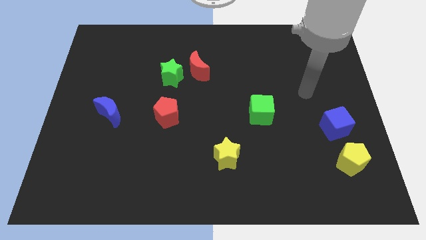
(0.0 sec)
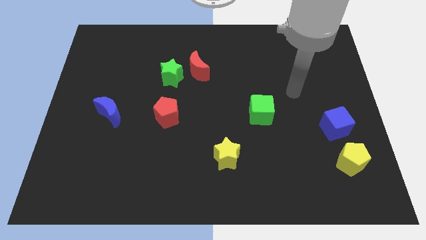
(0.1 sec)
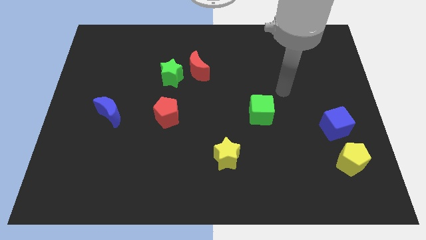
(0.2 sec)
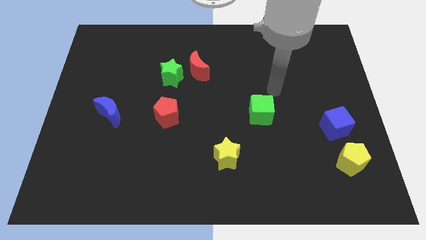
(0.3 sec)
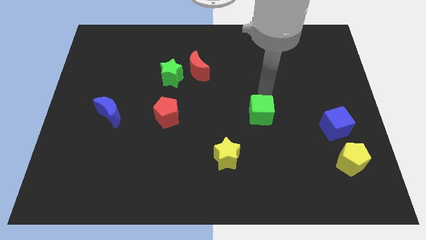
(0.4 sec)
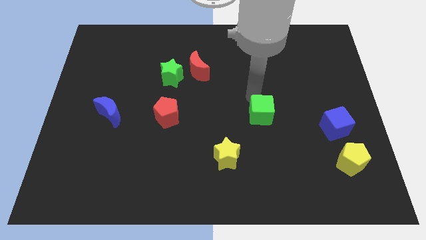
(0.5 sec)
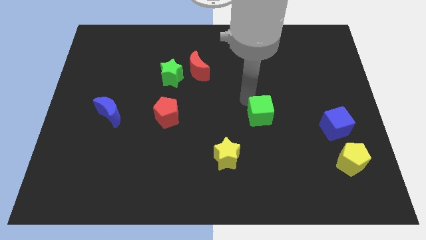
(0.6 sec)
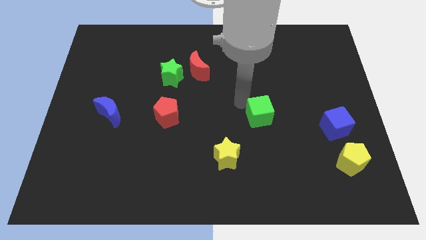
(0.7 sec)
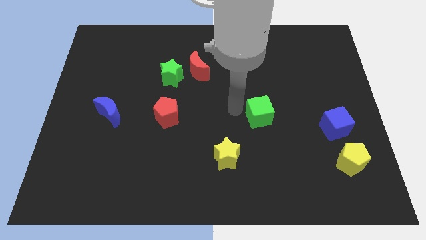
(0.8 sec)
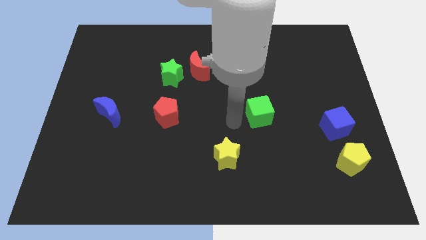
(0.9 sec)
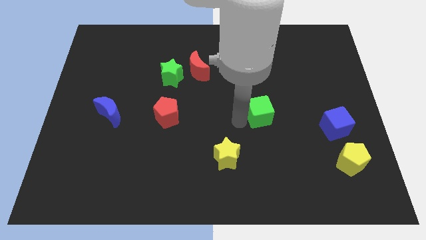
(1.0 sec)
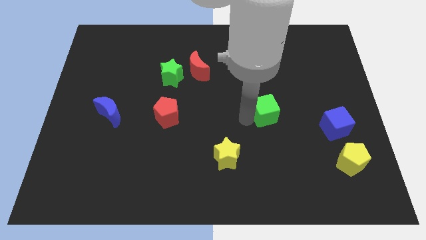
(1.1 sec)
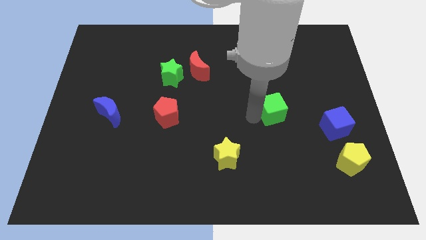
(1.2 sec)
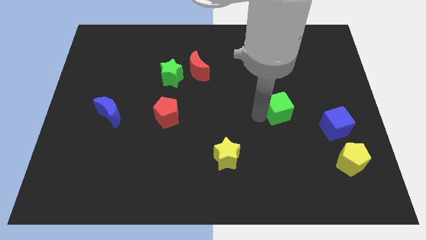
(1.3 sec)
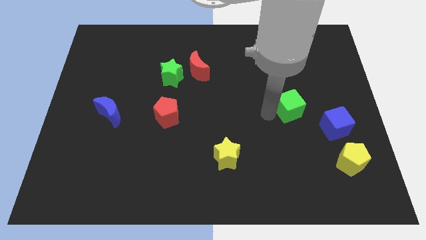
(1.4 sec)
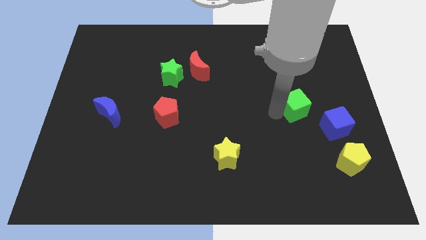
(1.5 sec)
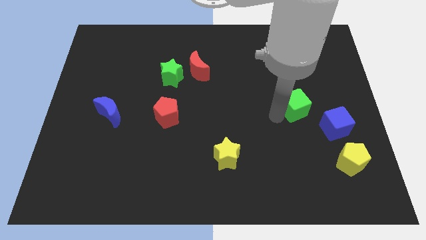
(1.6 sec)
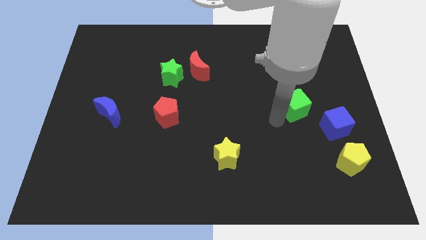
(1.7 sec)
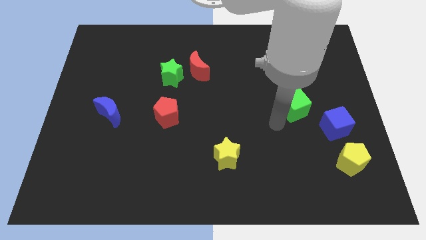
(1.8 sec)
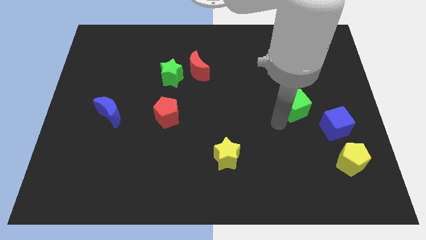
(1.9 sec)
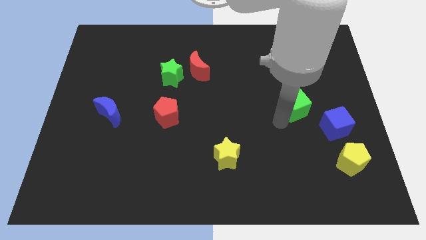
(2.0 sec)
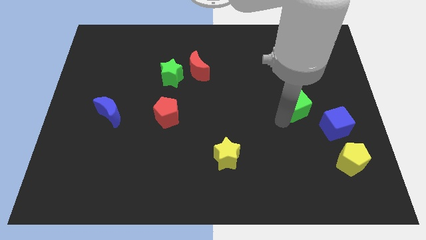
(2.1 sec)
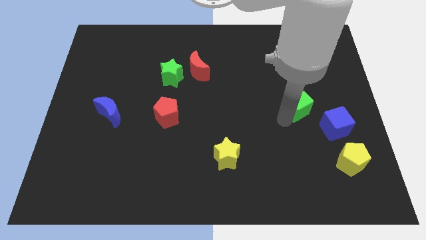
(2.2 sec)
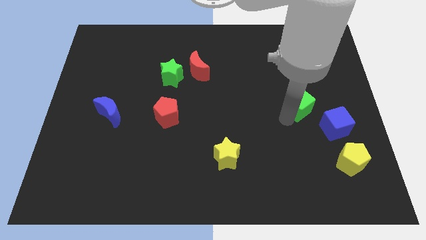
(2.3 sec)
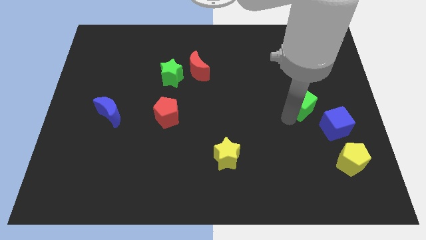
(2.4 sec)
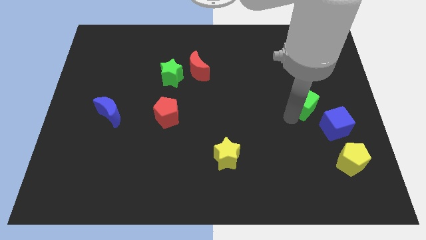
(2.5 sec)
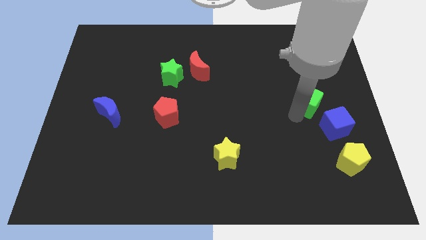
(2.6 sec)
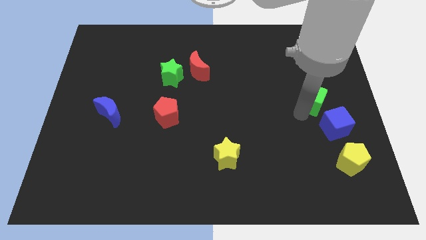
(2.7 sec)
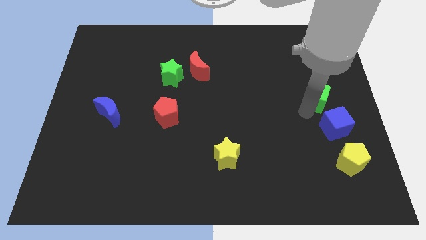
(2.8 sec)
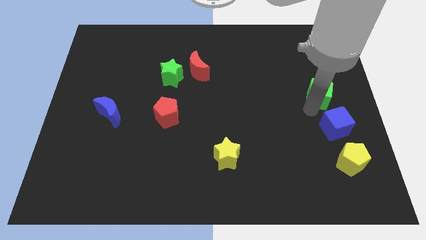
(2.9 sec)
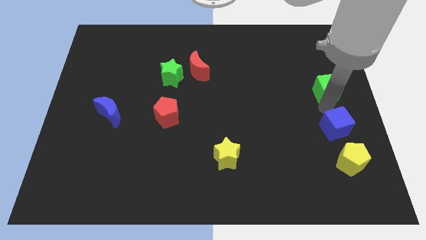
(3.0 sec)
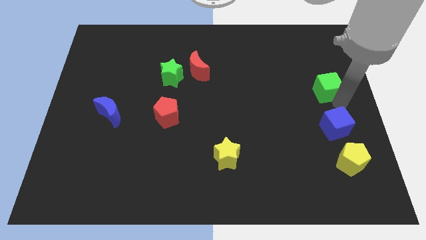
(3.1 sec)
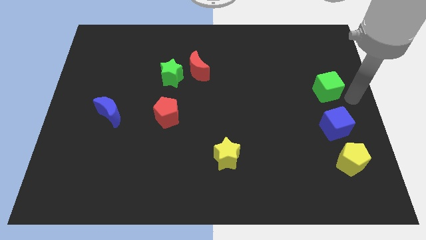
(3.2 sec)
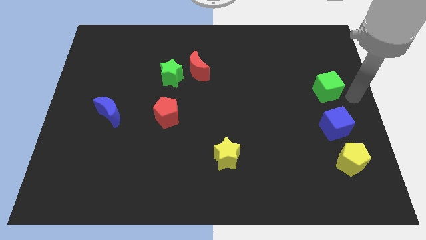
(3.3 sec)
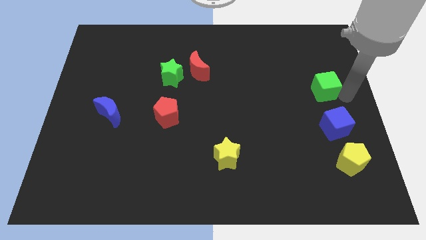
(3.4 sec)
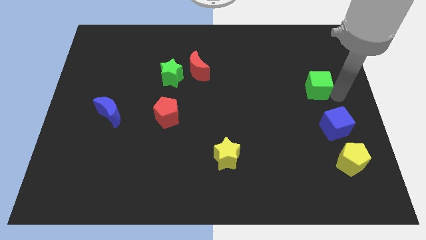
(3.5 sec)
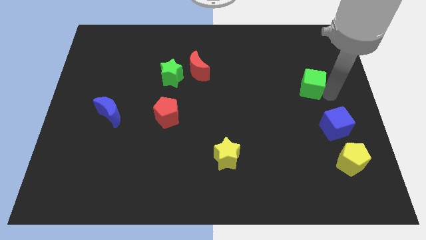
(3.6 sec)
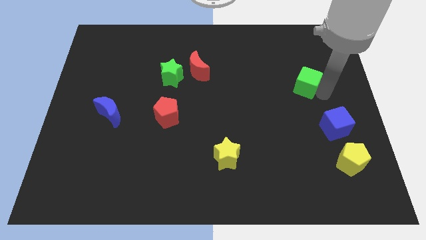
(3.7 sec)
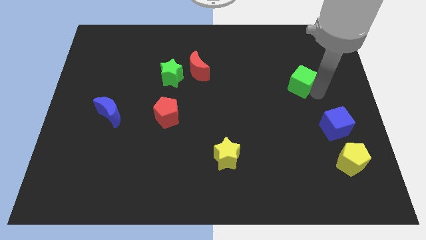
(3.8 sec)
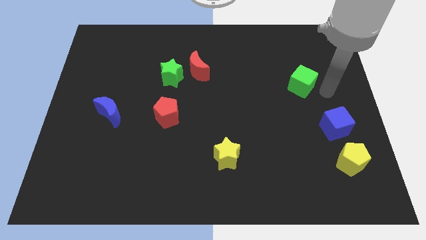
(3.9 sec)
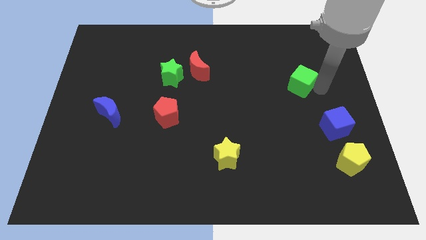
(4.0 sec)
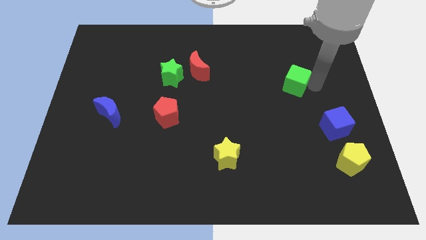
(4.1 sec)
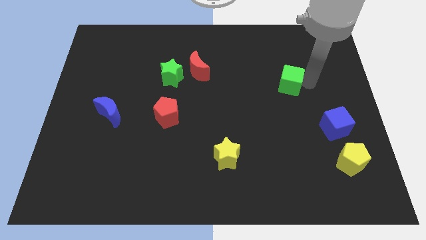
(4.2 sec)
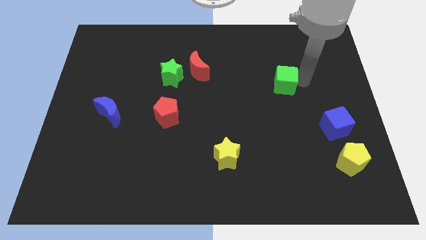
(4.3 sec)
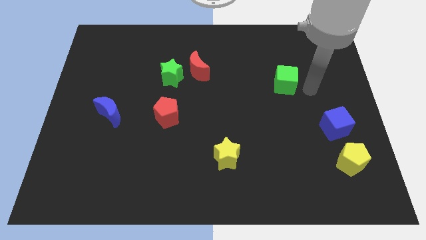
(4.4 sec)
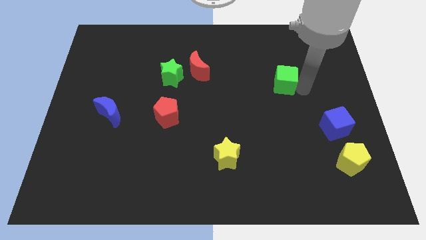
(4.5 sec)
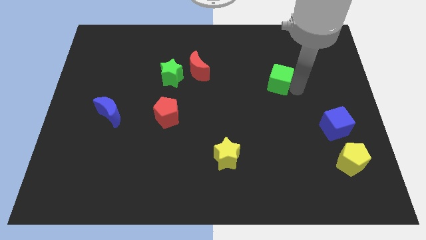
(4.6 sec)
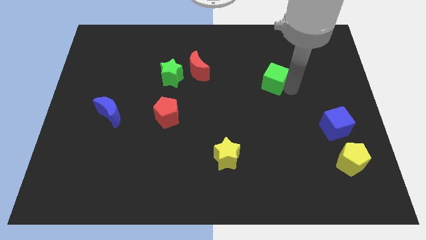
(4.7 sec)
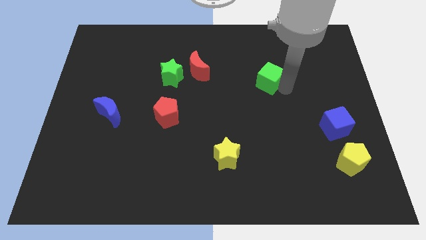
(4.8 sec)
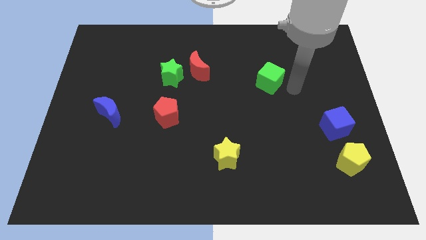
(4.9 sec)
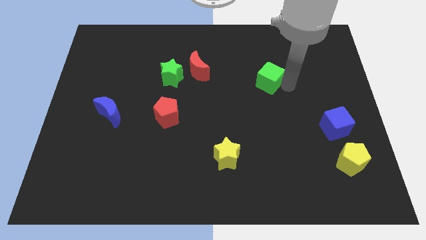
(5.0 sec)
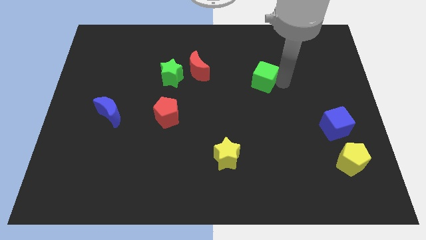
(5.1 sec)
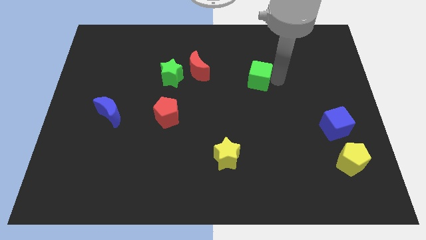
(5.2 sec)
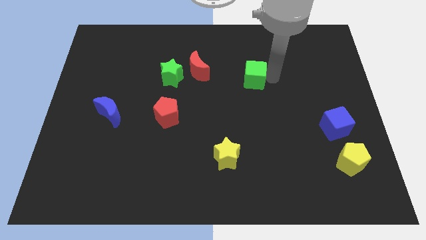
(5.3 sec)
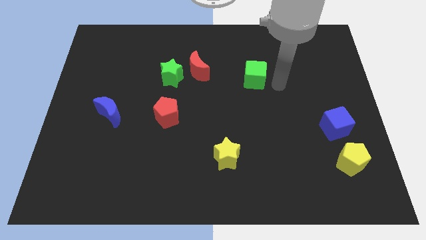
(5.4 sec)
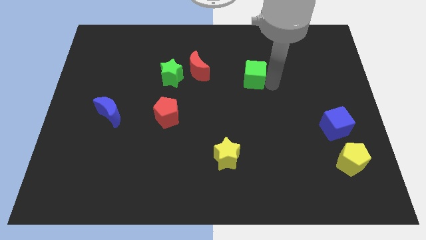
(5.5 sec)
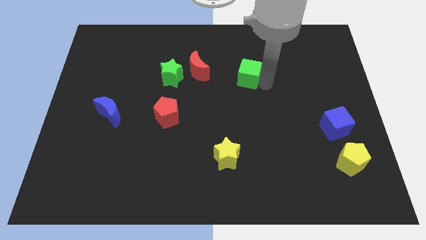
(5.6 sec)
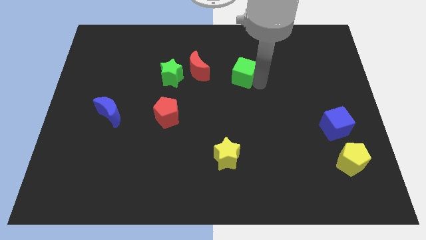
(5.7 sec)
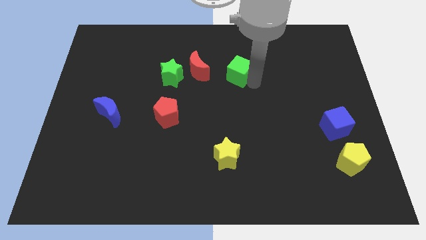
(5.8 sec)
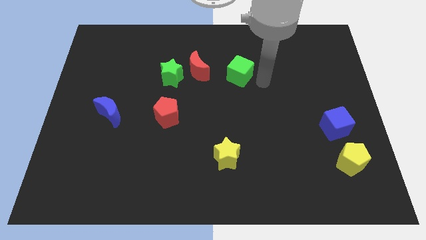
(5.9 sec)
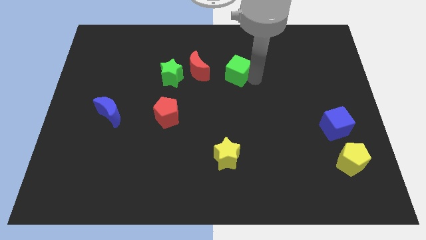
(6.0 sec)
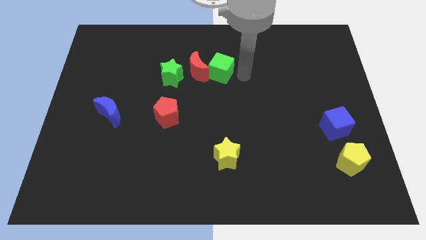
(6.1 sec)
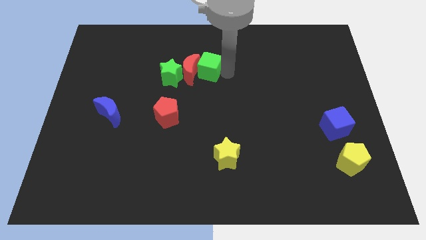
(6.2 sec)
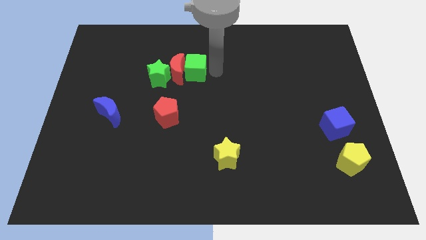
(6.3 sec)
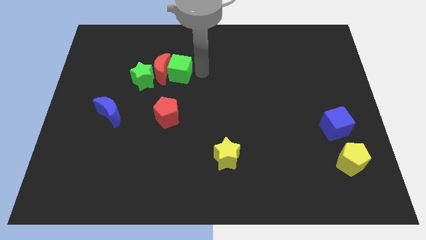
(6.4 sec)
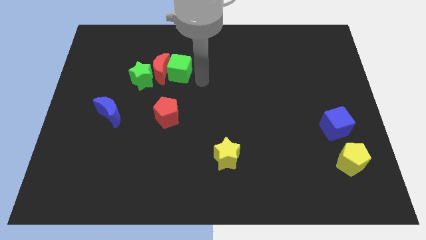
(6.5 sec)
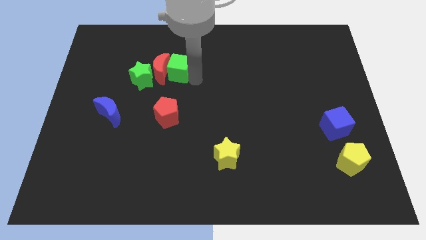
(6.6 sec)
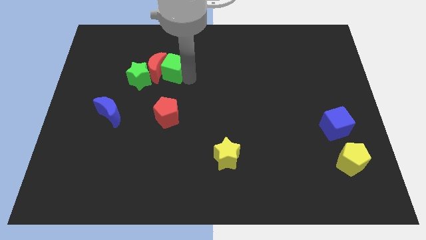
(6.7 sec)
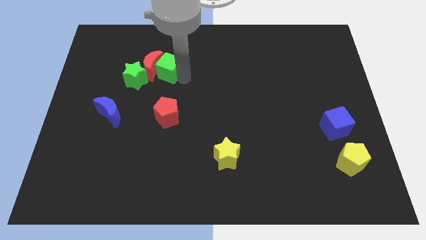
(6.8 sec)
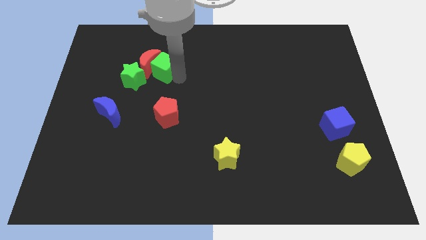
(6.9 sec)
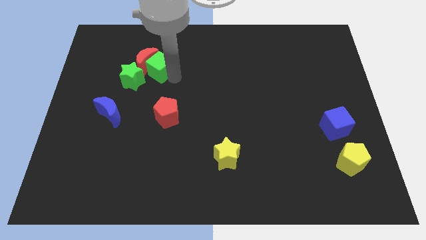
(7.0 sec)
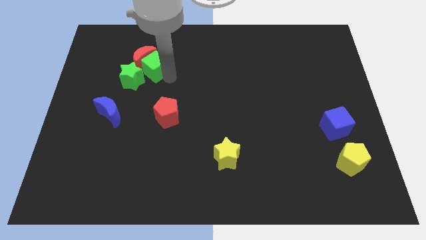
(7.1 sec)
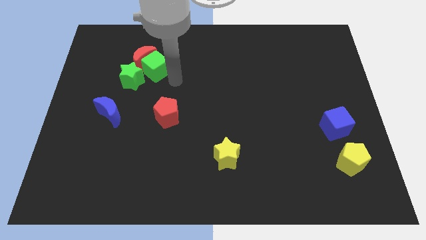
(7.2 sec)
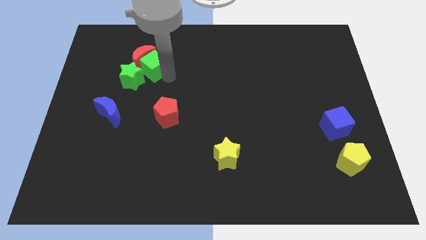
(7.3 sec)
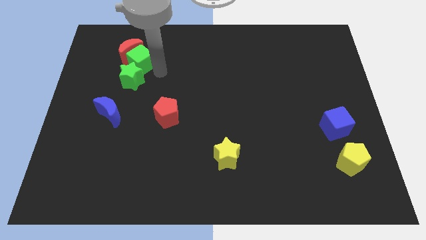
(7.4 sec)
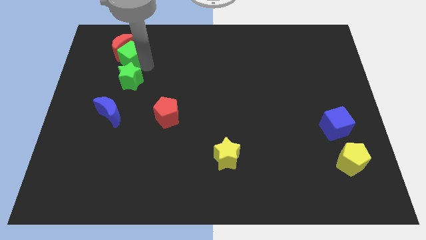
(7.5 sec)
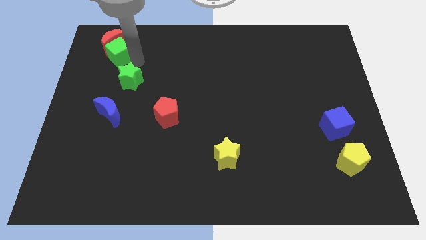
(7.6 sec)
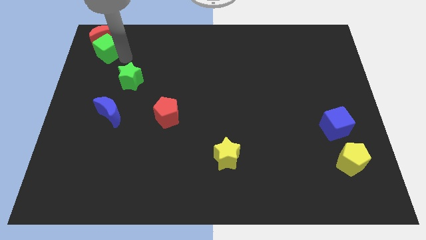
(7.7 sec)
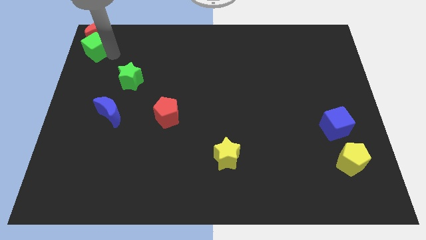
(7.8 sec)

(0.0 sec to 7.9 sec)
move the green cube to the top left corner
